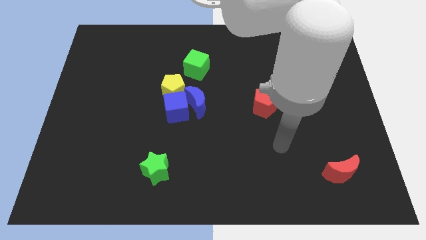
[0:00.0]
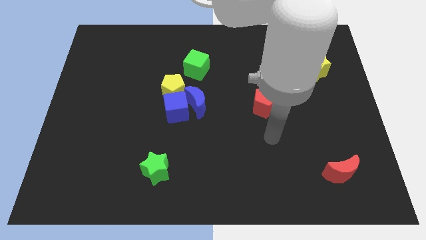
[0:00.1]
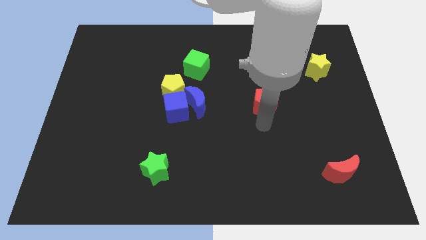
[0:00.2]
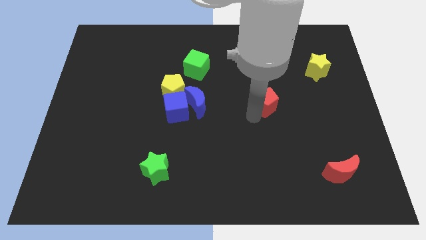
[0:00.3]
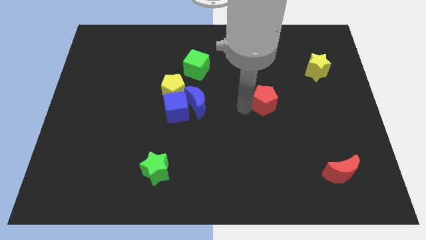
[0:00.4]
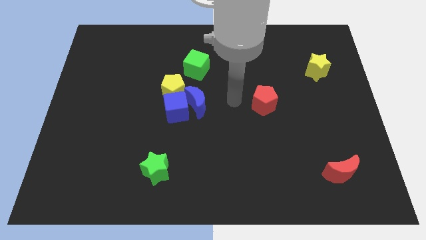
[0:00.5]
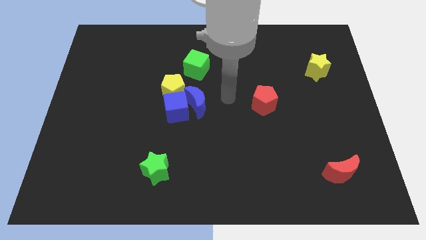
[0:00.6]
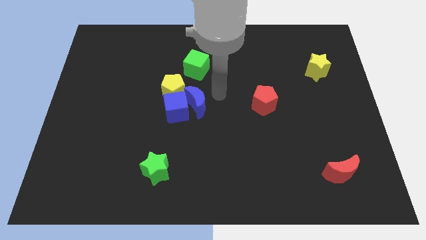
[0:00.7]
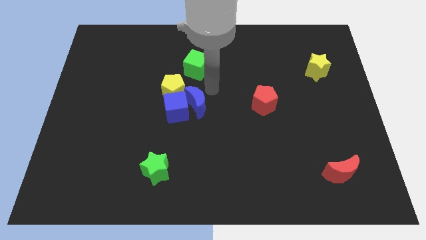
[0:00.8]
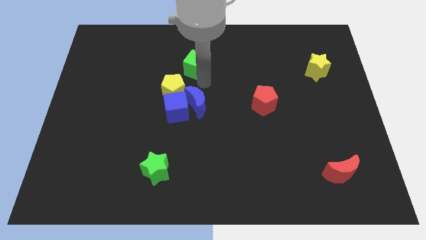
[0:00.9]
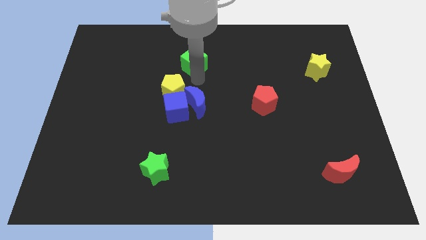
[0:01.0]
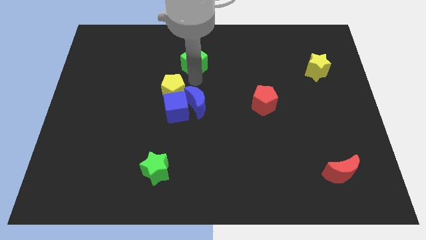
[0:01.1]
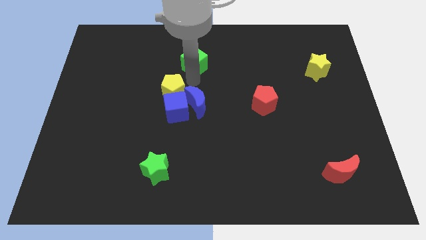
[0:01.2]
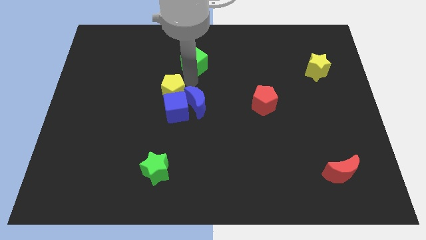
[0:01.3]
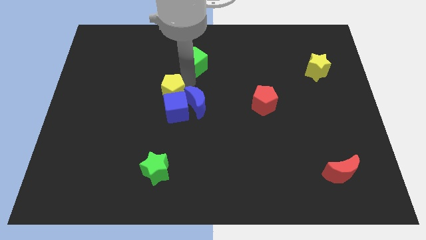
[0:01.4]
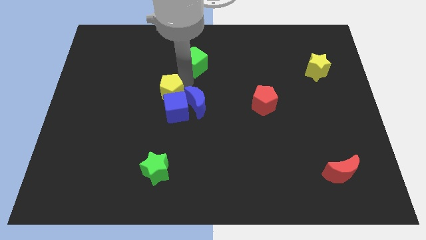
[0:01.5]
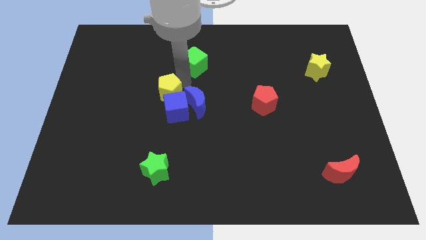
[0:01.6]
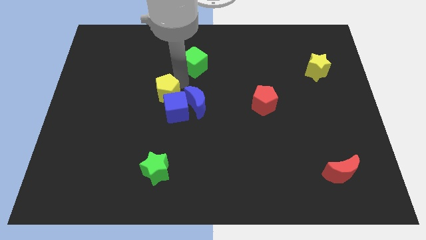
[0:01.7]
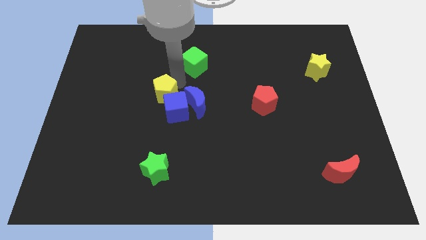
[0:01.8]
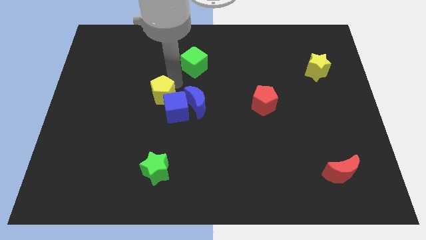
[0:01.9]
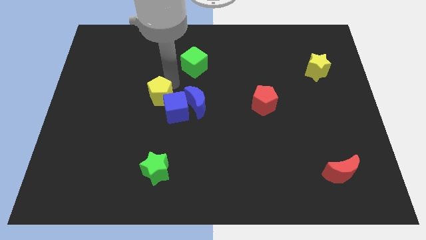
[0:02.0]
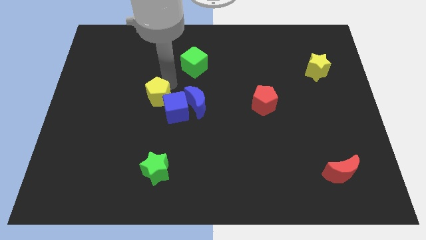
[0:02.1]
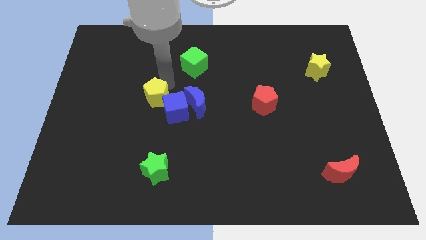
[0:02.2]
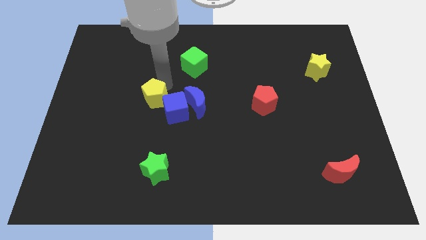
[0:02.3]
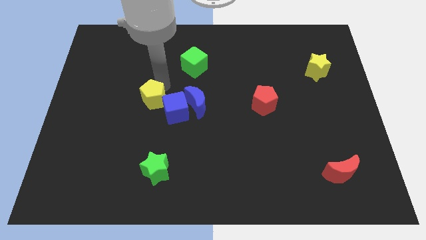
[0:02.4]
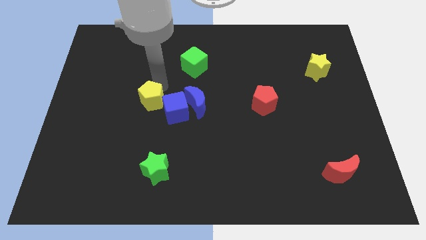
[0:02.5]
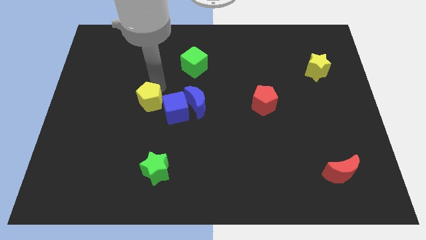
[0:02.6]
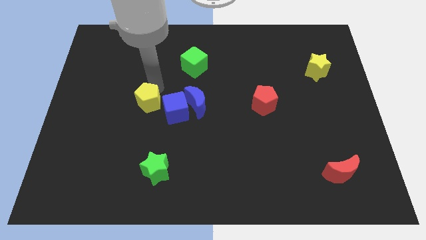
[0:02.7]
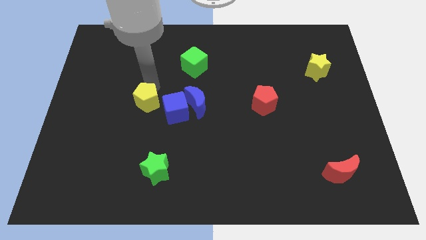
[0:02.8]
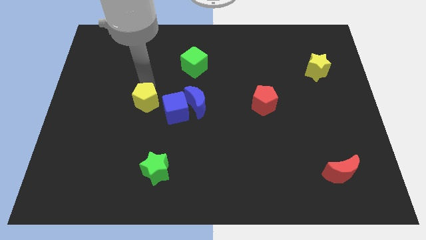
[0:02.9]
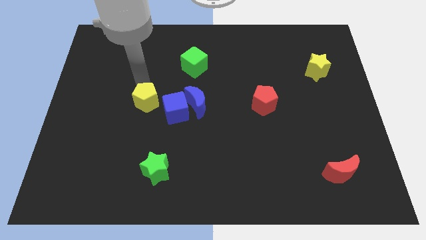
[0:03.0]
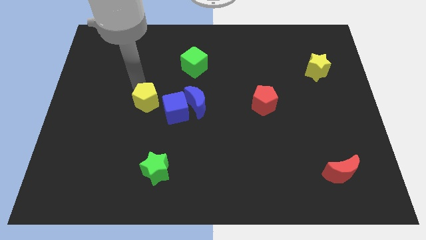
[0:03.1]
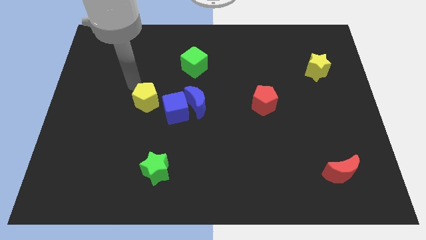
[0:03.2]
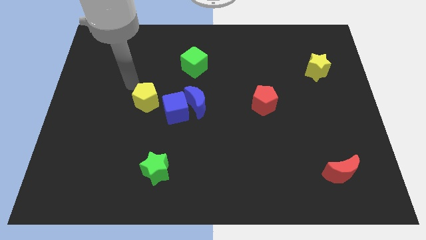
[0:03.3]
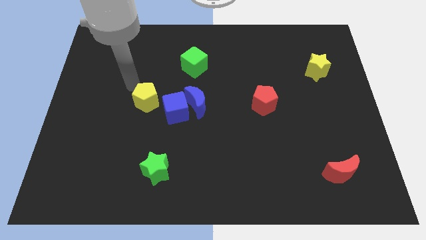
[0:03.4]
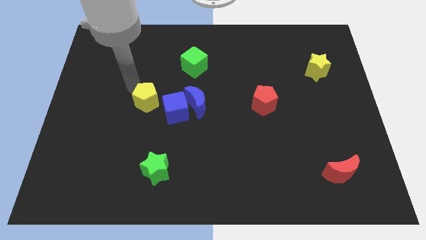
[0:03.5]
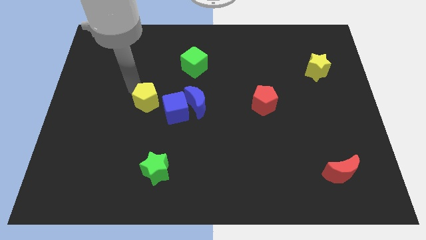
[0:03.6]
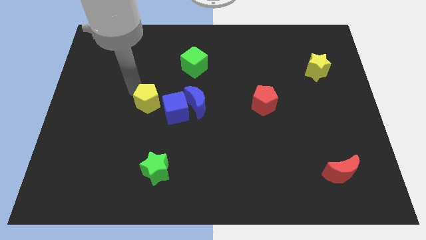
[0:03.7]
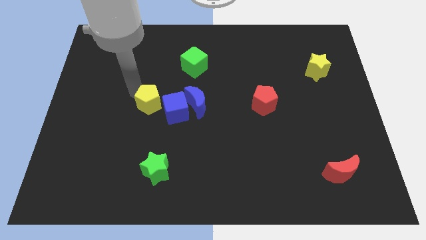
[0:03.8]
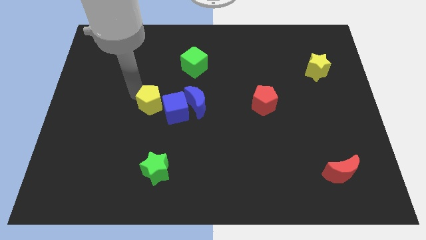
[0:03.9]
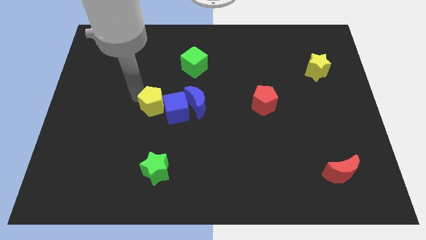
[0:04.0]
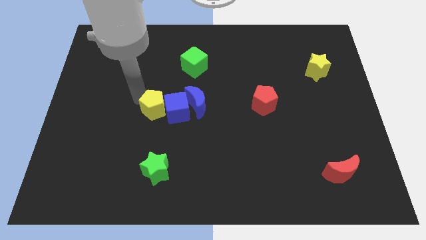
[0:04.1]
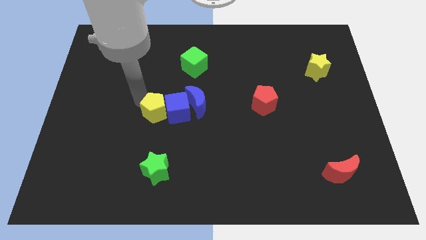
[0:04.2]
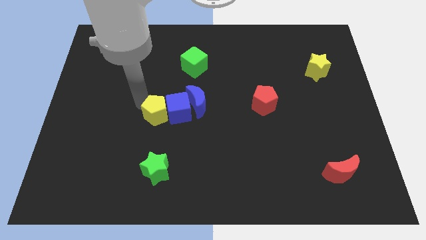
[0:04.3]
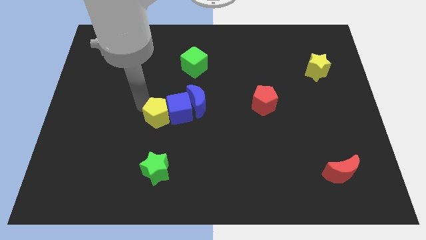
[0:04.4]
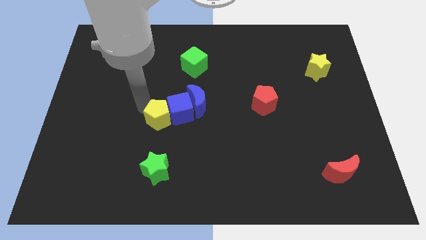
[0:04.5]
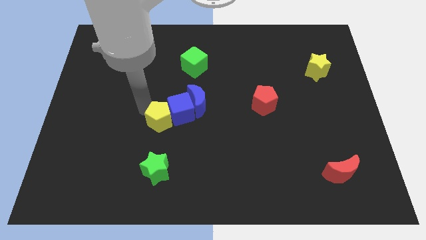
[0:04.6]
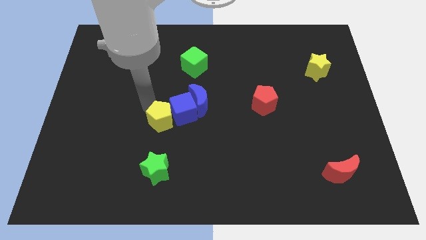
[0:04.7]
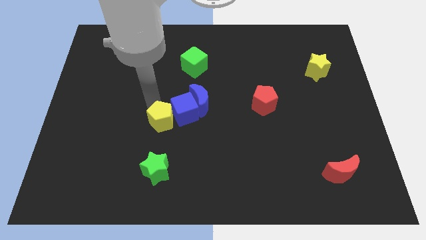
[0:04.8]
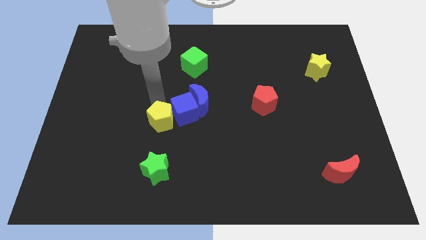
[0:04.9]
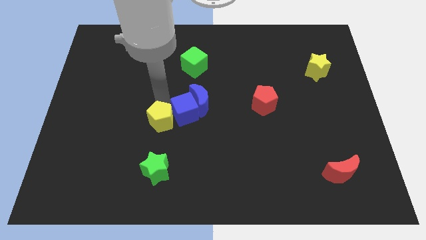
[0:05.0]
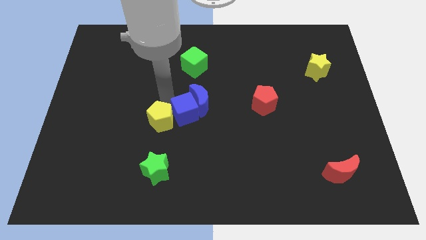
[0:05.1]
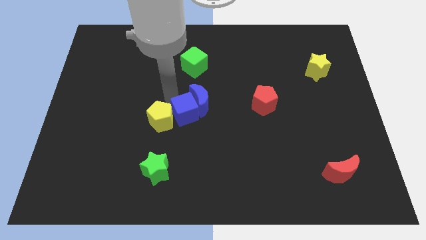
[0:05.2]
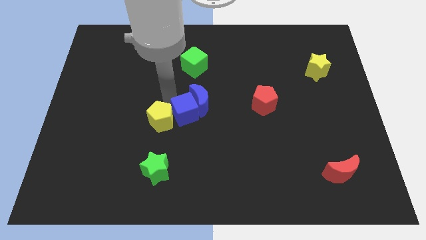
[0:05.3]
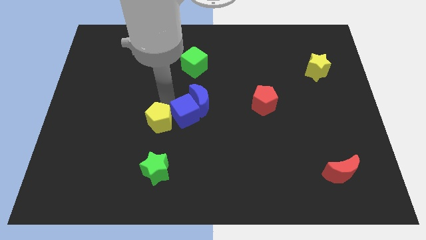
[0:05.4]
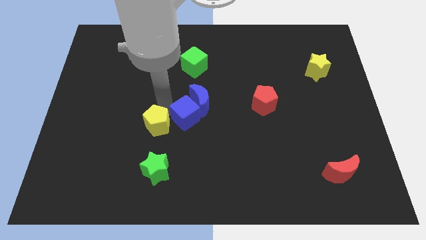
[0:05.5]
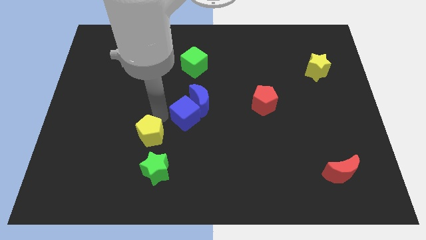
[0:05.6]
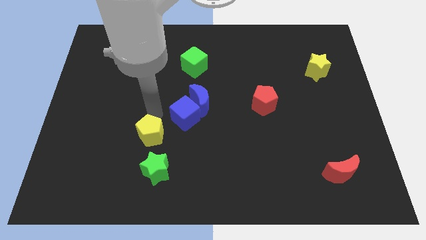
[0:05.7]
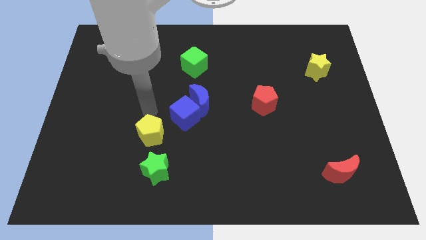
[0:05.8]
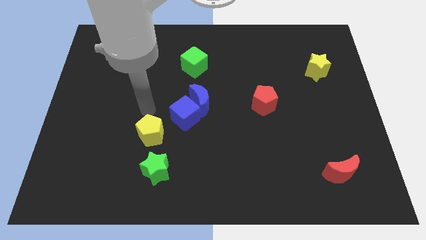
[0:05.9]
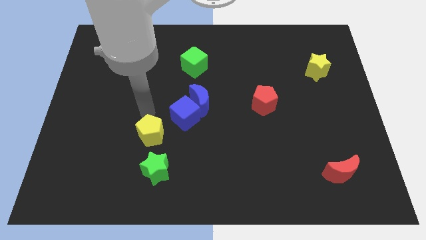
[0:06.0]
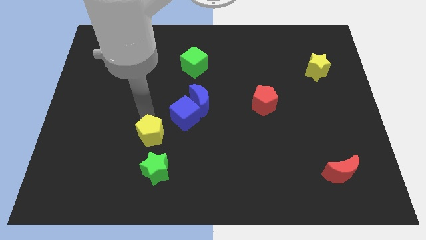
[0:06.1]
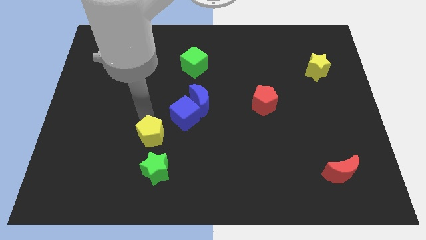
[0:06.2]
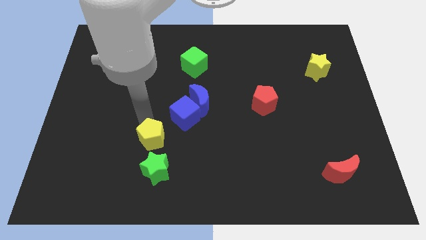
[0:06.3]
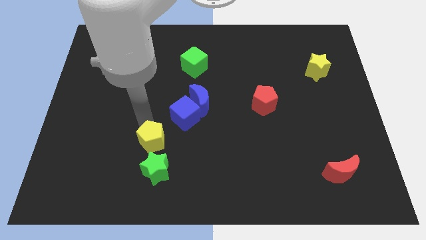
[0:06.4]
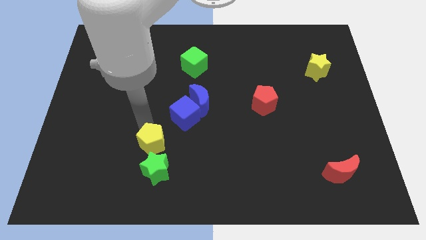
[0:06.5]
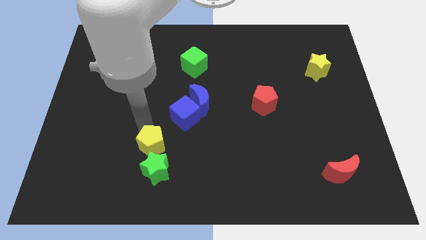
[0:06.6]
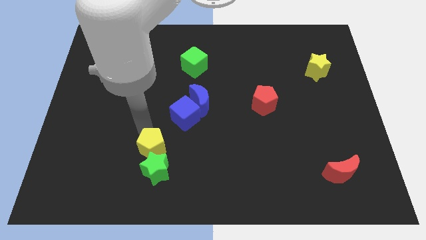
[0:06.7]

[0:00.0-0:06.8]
move the yellow pentagon towards the green star

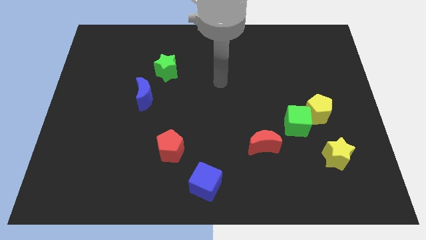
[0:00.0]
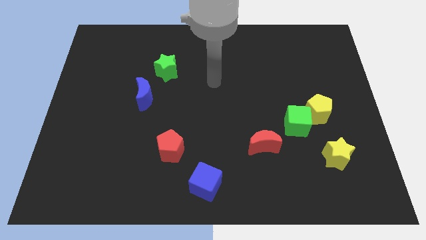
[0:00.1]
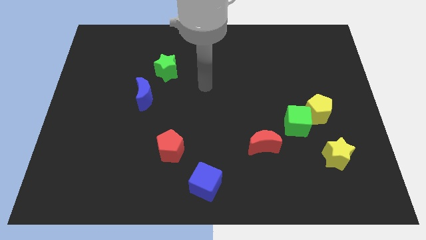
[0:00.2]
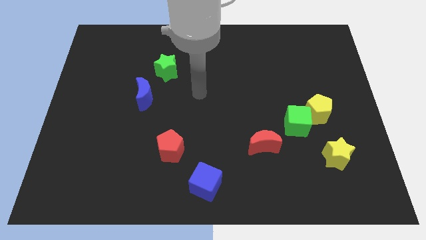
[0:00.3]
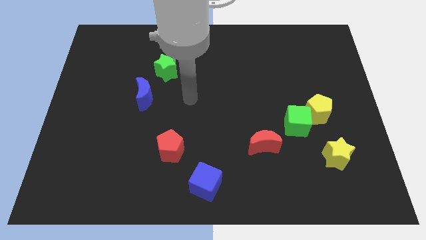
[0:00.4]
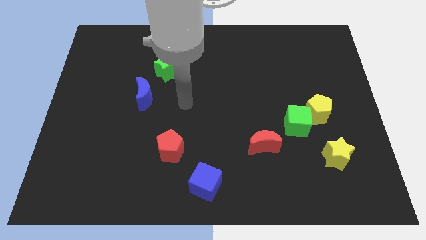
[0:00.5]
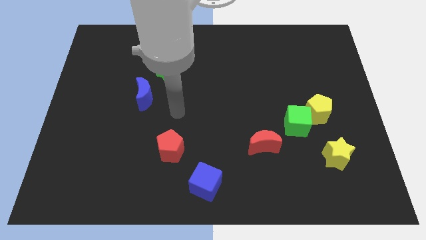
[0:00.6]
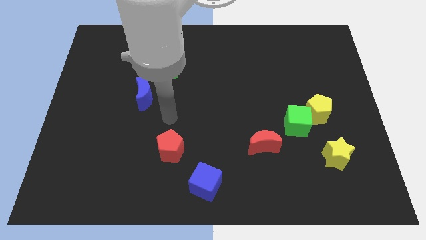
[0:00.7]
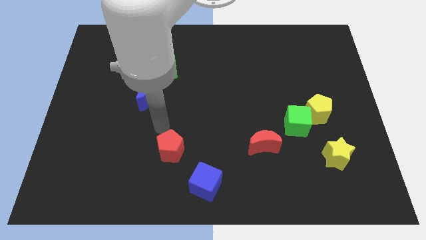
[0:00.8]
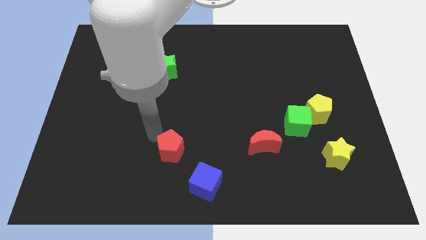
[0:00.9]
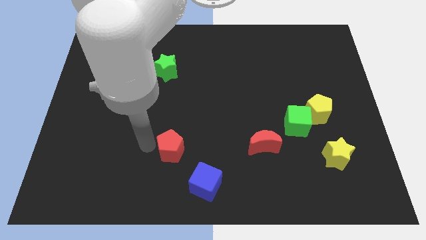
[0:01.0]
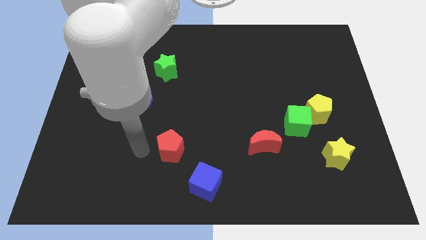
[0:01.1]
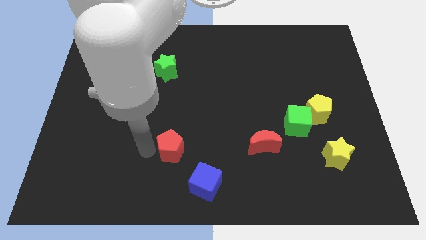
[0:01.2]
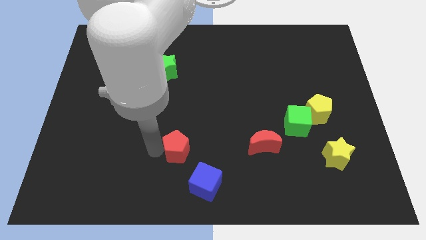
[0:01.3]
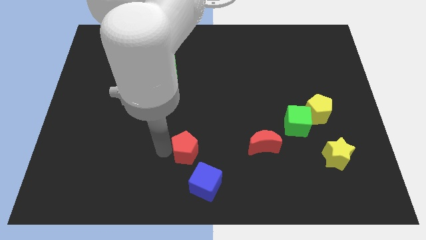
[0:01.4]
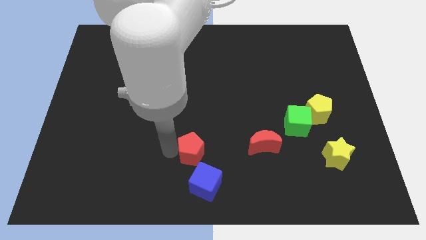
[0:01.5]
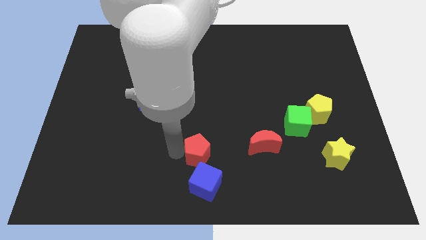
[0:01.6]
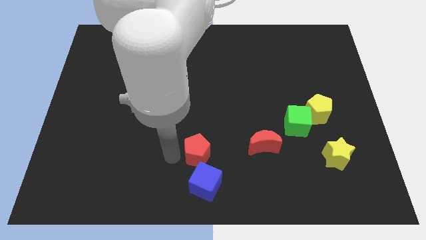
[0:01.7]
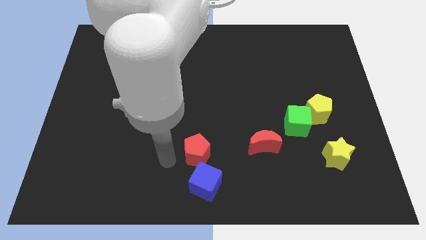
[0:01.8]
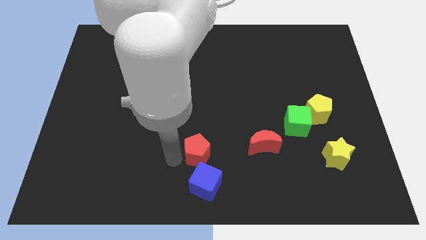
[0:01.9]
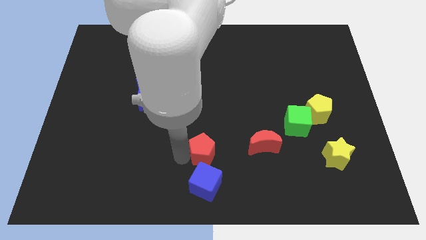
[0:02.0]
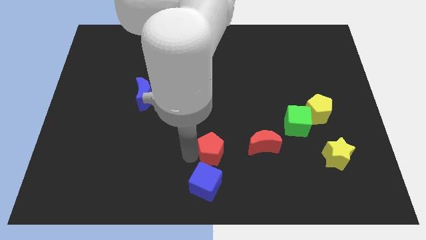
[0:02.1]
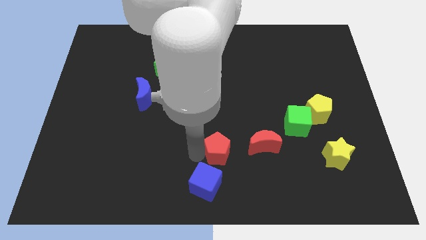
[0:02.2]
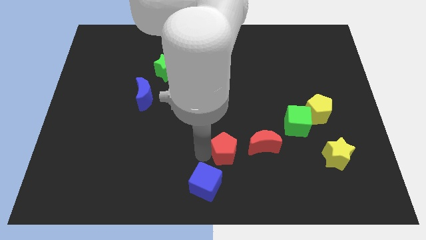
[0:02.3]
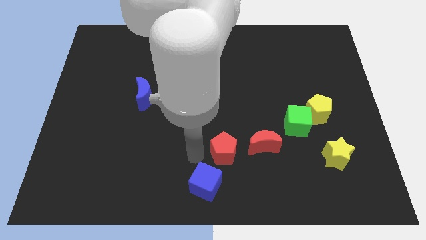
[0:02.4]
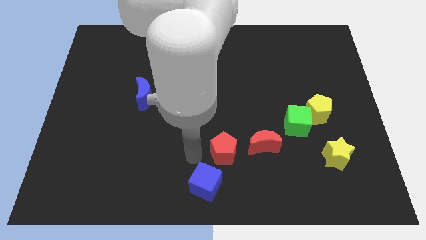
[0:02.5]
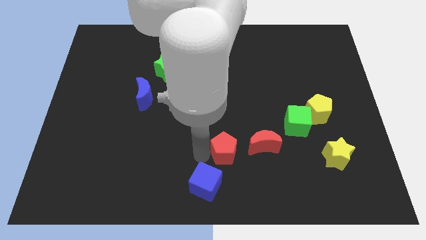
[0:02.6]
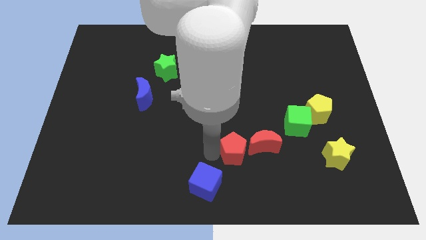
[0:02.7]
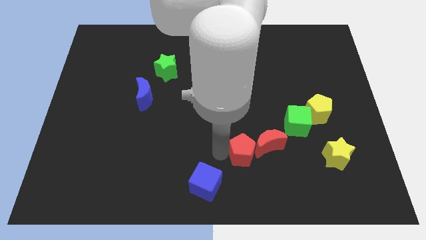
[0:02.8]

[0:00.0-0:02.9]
move the red pentagon close to the red moon
